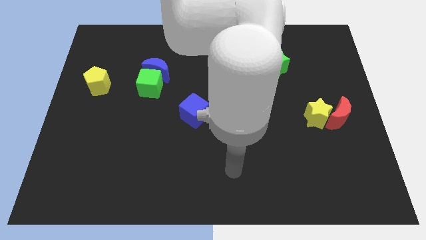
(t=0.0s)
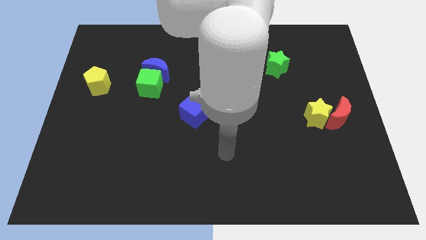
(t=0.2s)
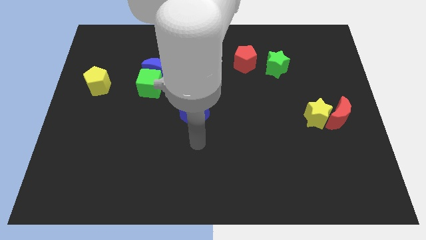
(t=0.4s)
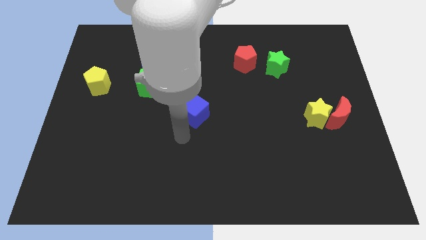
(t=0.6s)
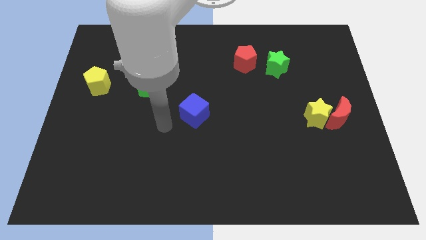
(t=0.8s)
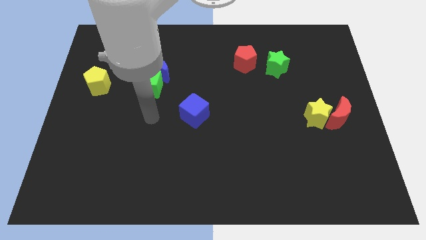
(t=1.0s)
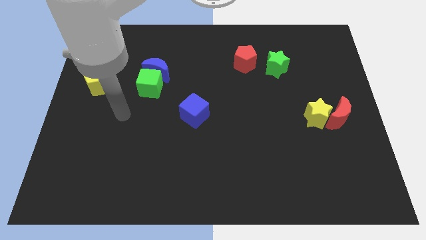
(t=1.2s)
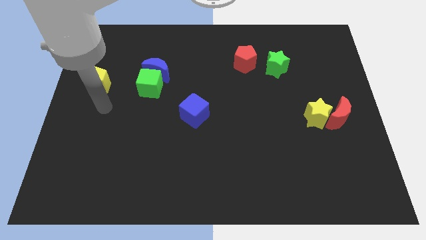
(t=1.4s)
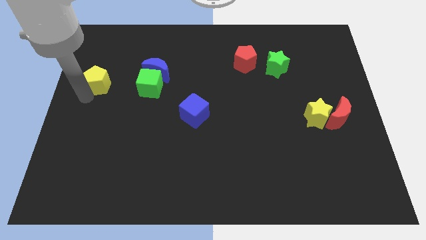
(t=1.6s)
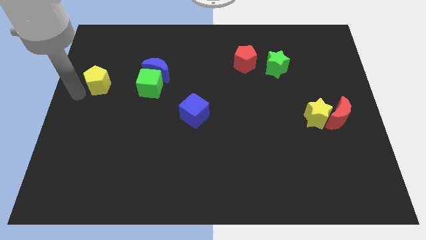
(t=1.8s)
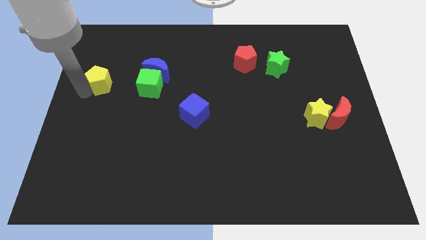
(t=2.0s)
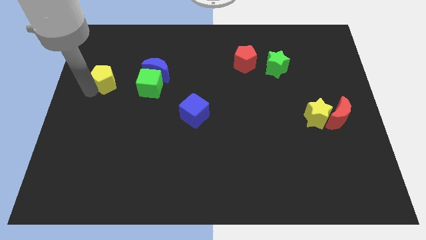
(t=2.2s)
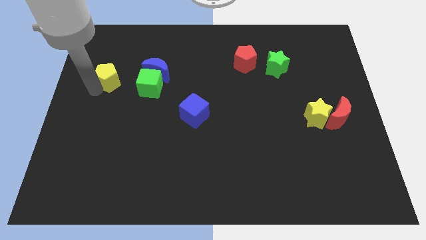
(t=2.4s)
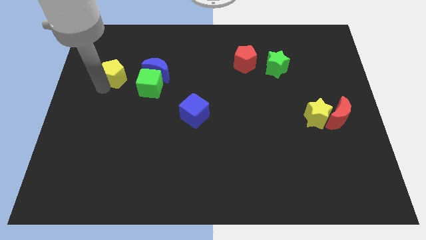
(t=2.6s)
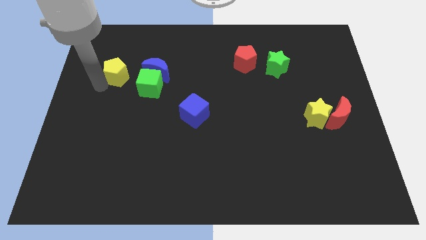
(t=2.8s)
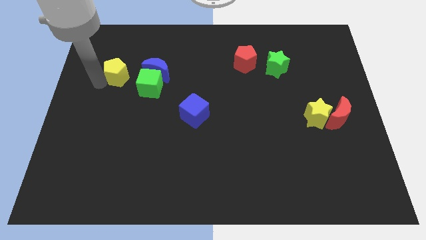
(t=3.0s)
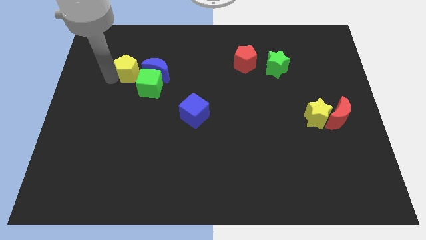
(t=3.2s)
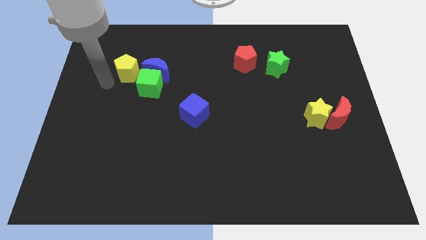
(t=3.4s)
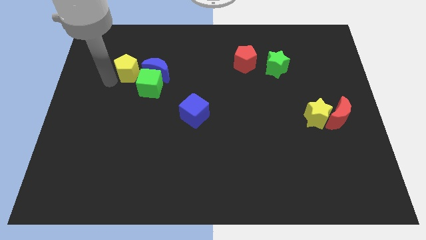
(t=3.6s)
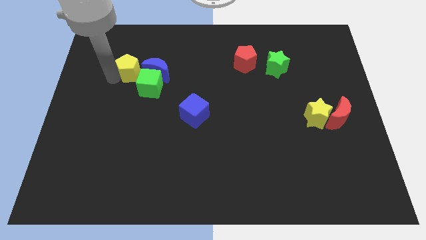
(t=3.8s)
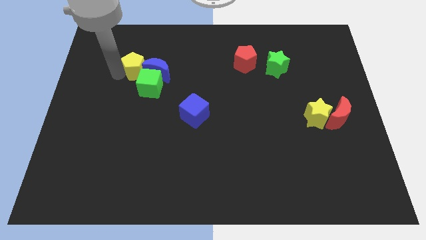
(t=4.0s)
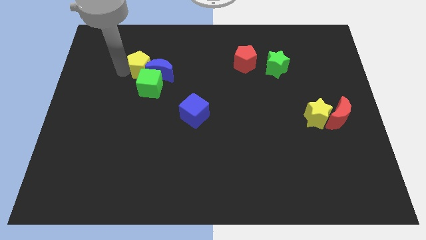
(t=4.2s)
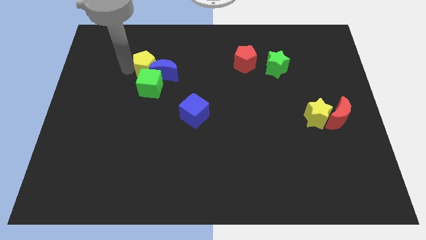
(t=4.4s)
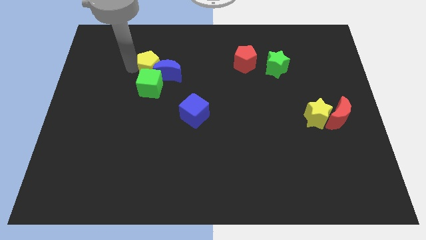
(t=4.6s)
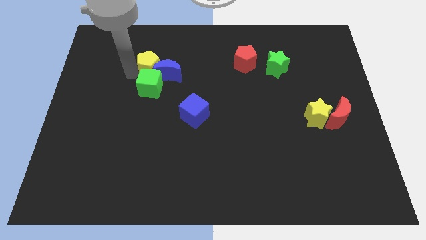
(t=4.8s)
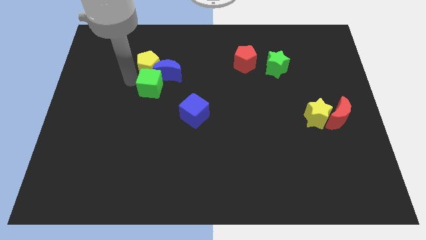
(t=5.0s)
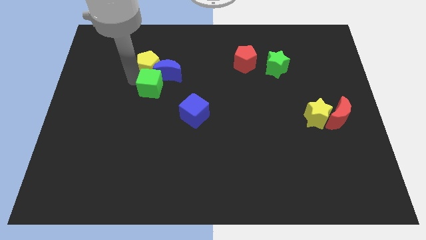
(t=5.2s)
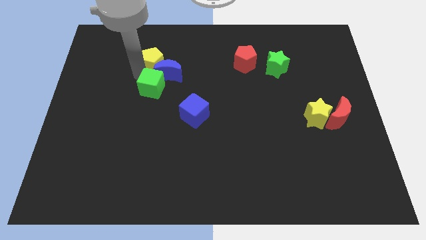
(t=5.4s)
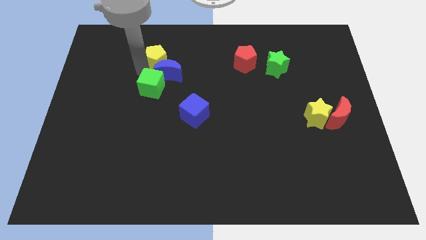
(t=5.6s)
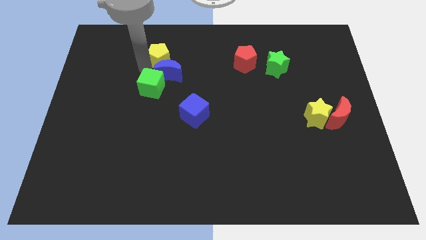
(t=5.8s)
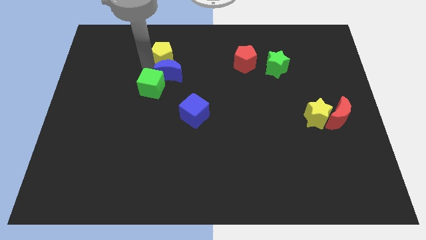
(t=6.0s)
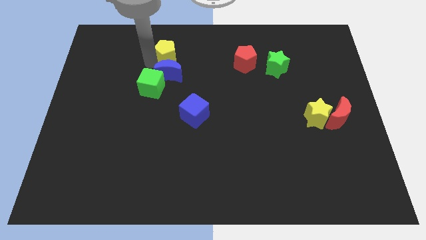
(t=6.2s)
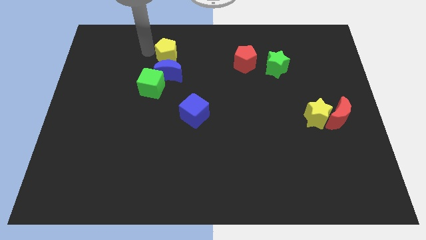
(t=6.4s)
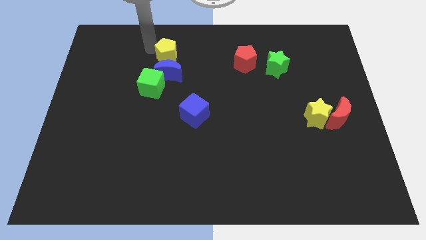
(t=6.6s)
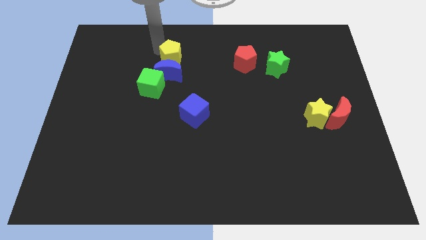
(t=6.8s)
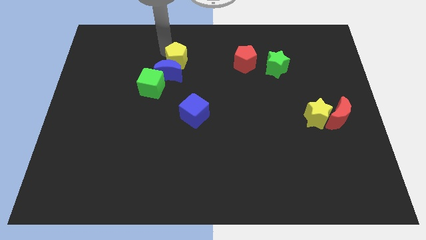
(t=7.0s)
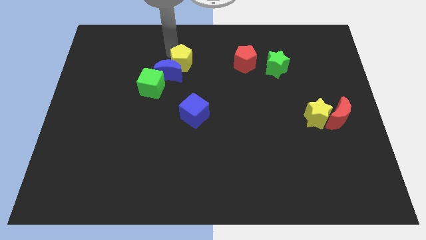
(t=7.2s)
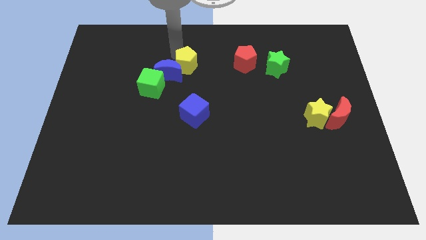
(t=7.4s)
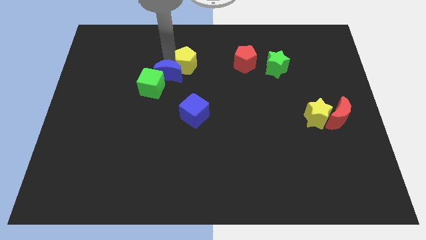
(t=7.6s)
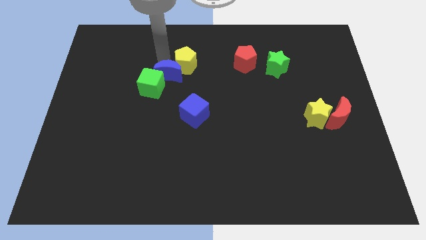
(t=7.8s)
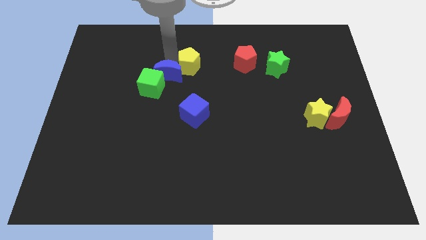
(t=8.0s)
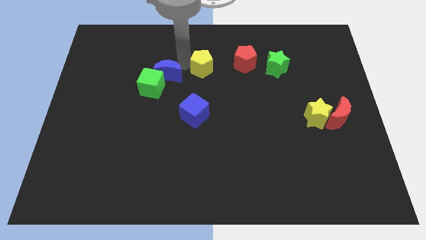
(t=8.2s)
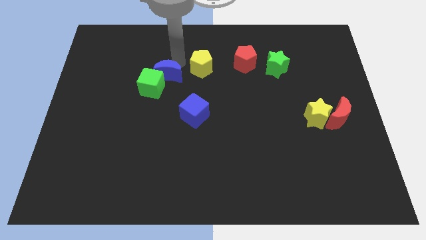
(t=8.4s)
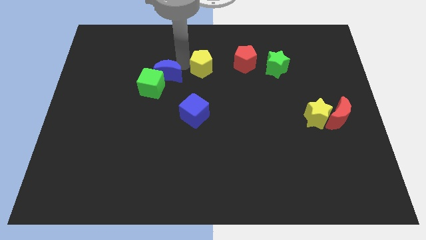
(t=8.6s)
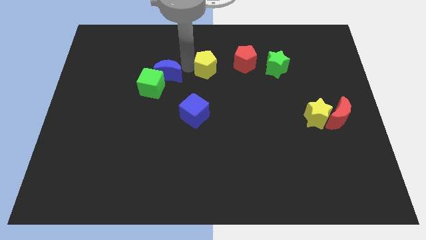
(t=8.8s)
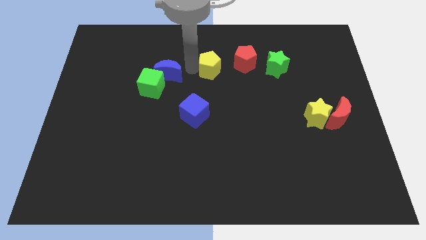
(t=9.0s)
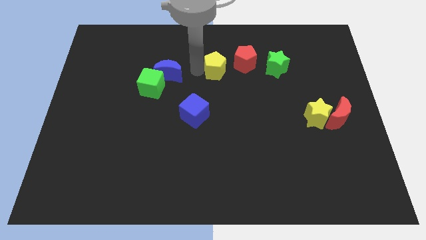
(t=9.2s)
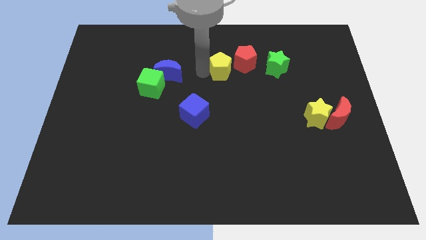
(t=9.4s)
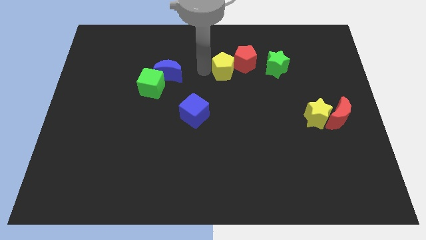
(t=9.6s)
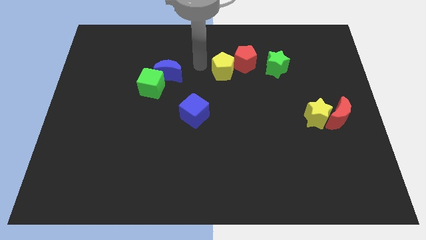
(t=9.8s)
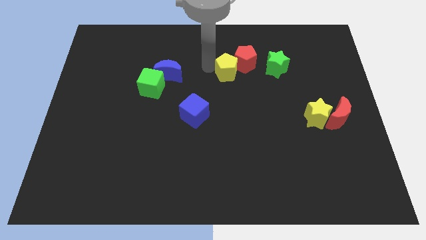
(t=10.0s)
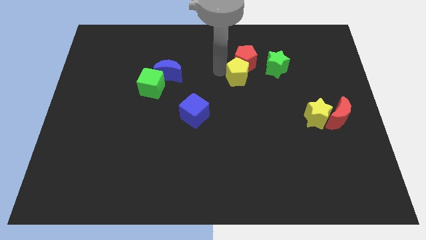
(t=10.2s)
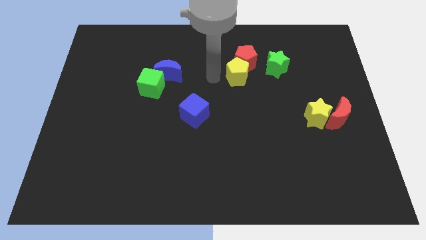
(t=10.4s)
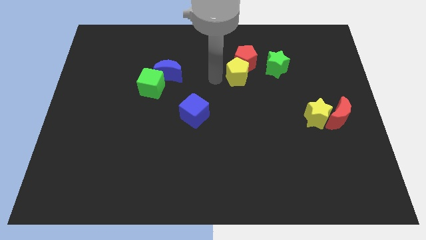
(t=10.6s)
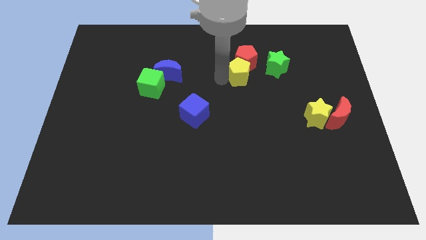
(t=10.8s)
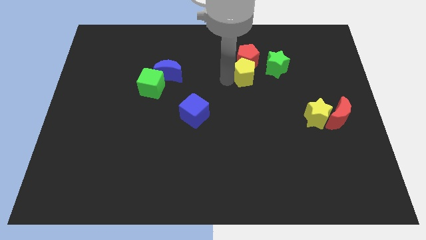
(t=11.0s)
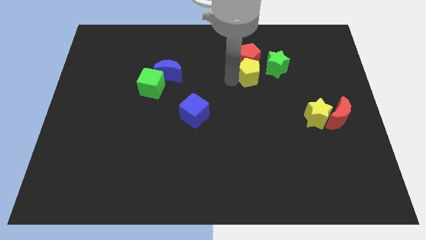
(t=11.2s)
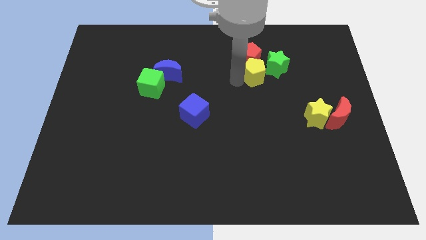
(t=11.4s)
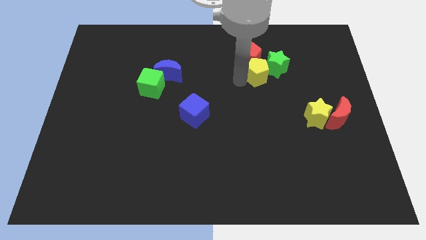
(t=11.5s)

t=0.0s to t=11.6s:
put the yellow pentagon close to the green star

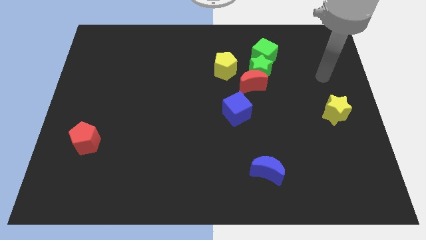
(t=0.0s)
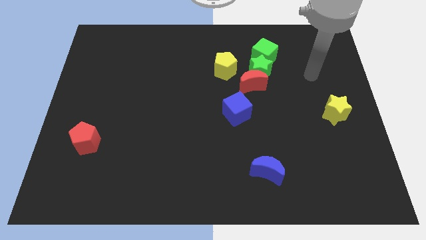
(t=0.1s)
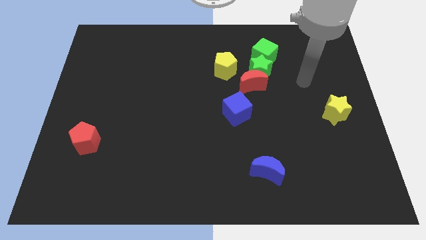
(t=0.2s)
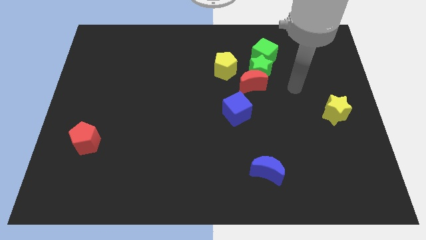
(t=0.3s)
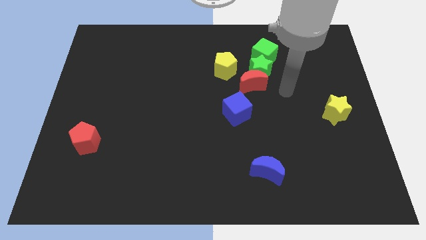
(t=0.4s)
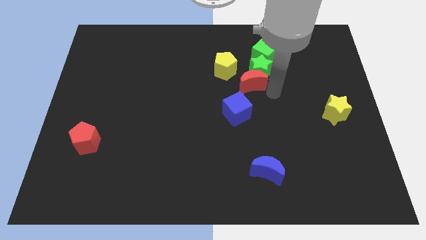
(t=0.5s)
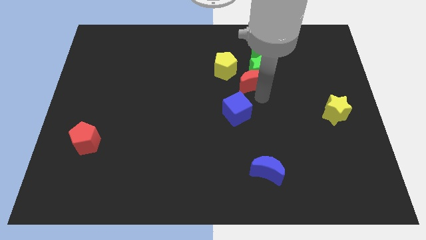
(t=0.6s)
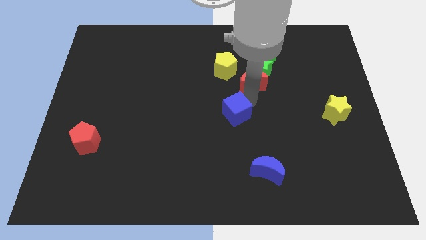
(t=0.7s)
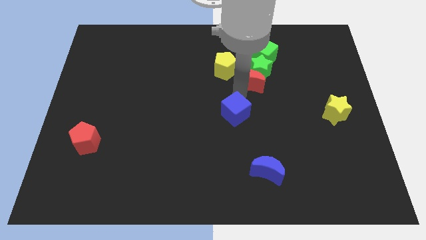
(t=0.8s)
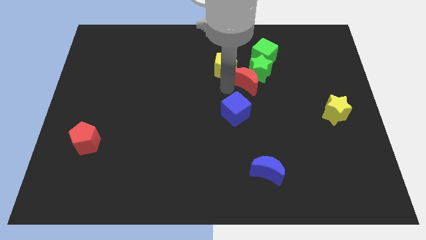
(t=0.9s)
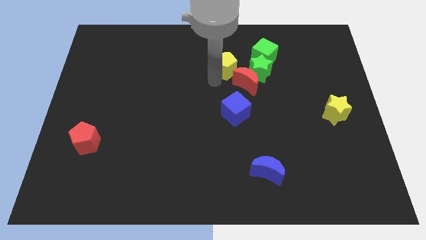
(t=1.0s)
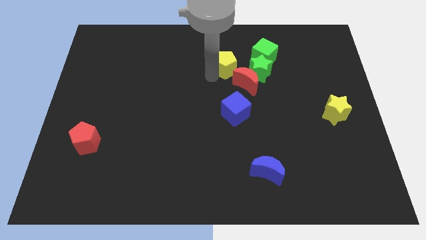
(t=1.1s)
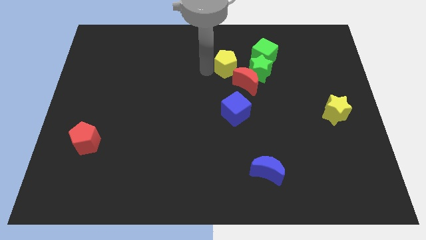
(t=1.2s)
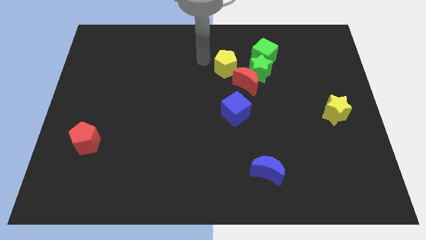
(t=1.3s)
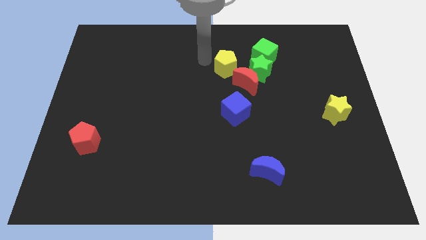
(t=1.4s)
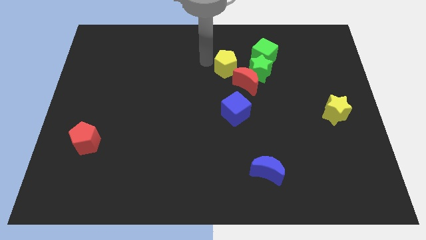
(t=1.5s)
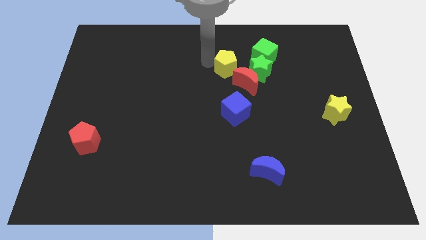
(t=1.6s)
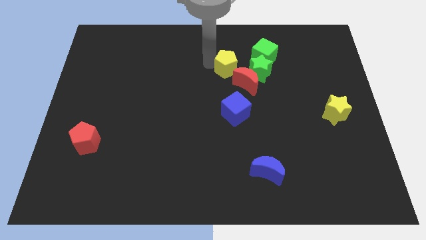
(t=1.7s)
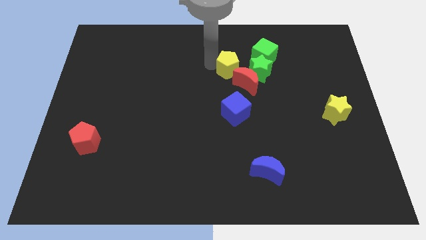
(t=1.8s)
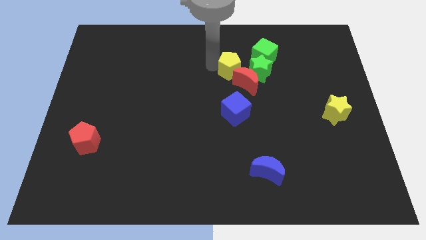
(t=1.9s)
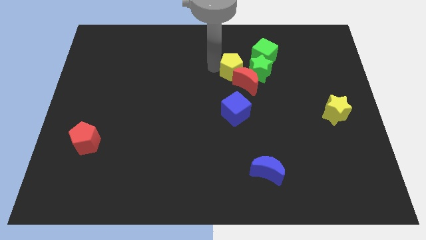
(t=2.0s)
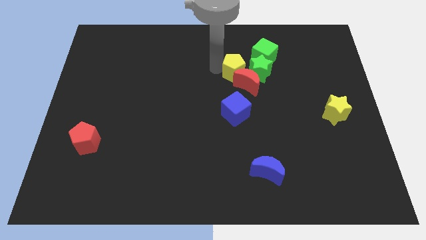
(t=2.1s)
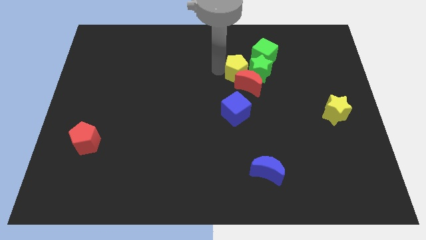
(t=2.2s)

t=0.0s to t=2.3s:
put the yellow pentagon to the green star
